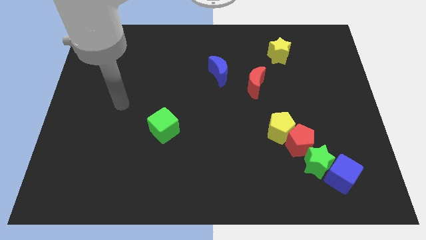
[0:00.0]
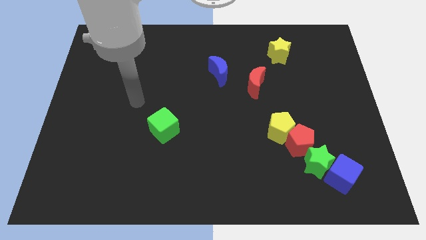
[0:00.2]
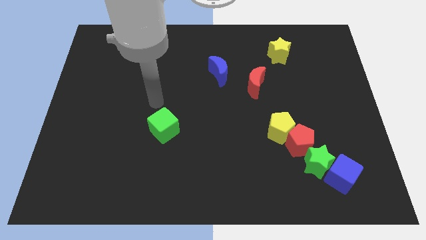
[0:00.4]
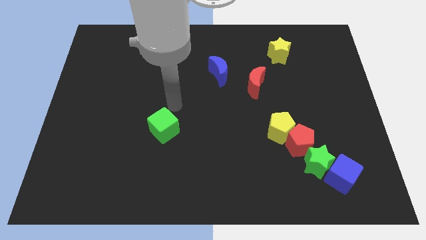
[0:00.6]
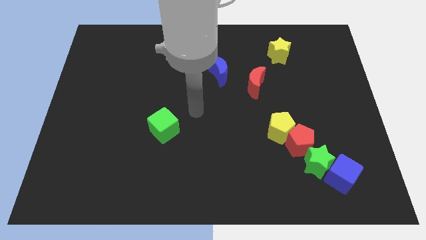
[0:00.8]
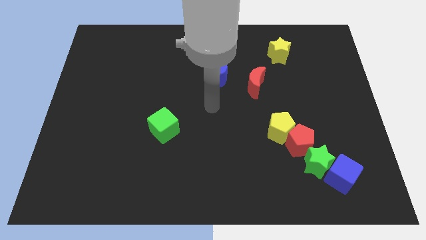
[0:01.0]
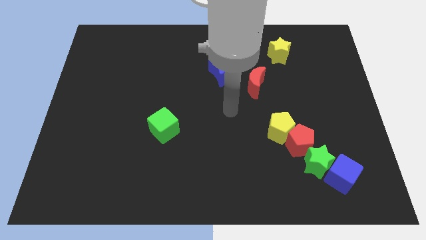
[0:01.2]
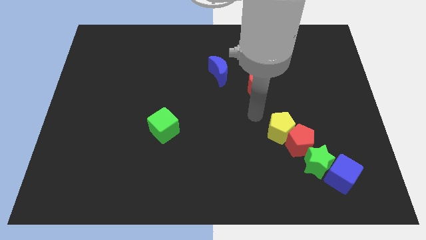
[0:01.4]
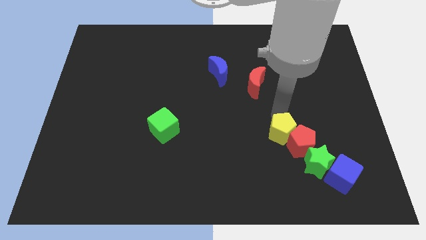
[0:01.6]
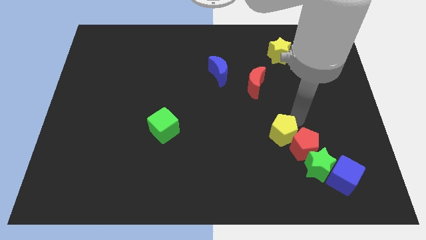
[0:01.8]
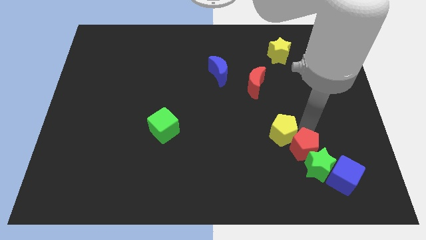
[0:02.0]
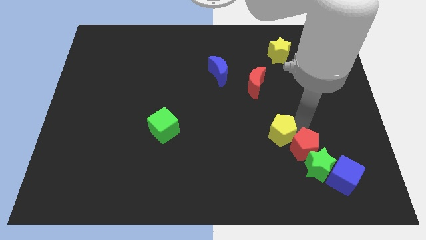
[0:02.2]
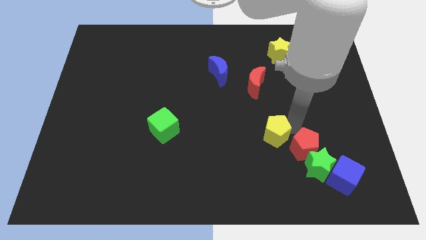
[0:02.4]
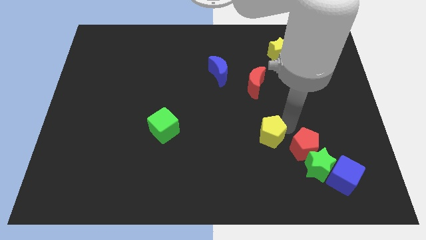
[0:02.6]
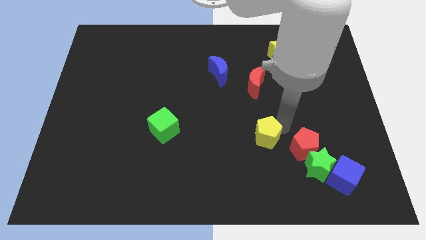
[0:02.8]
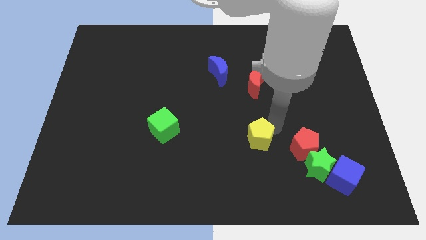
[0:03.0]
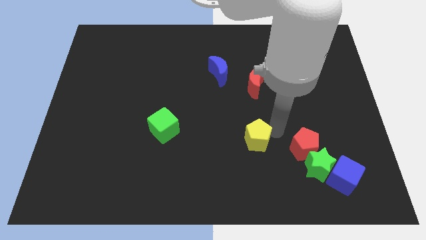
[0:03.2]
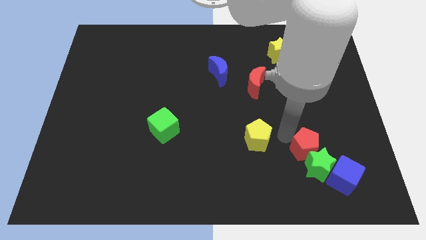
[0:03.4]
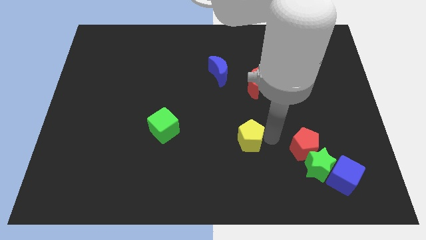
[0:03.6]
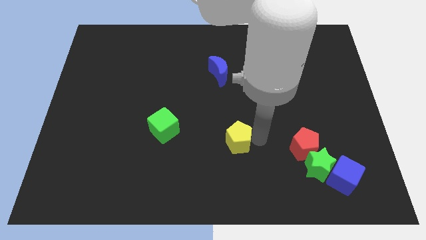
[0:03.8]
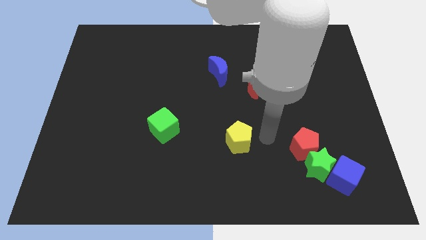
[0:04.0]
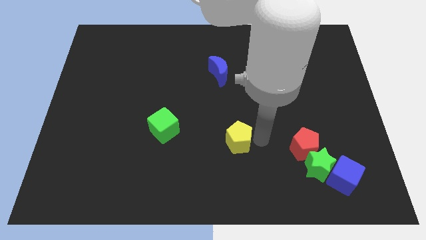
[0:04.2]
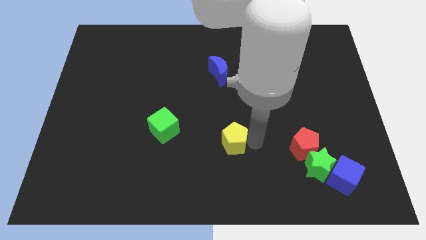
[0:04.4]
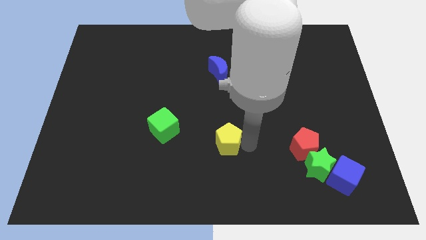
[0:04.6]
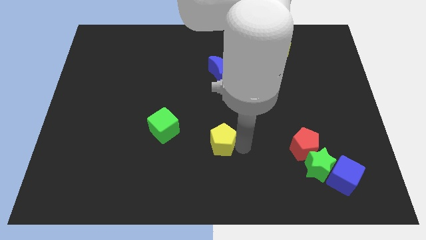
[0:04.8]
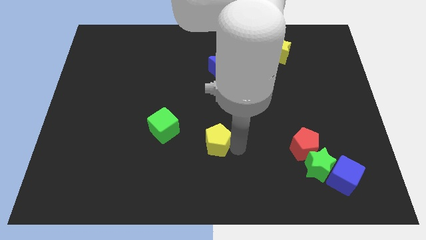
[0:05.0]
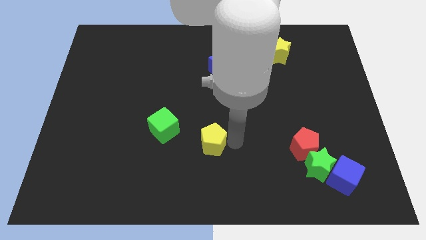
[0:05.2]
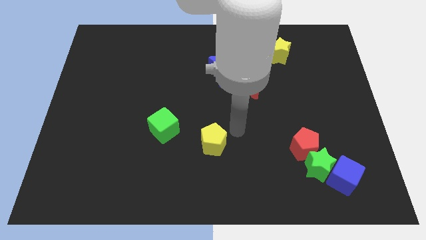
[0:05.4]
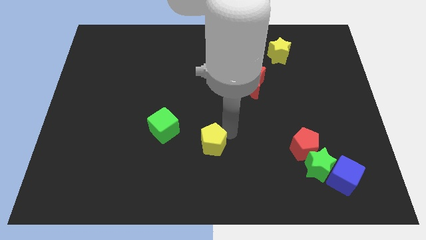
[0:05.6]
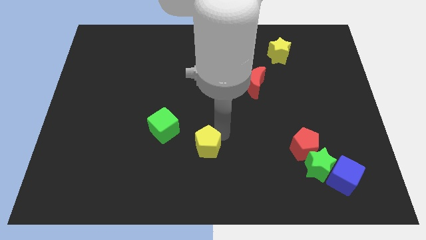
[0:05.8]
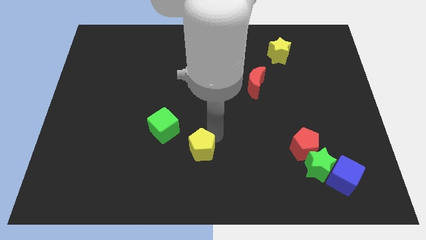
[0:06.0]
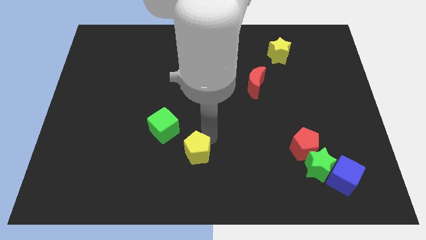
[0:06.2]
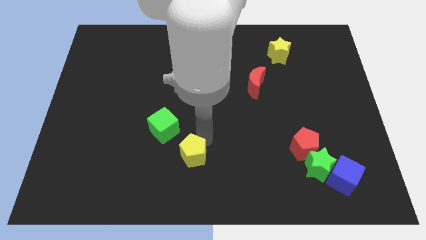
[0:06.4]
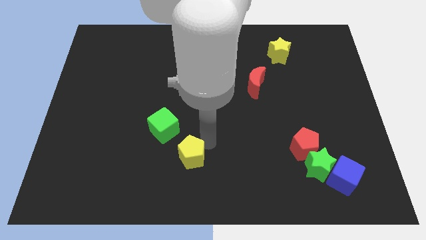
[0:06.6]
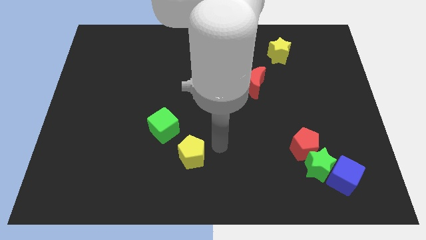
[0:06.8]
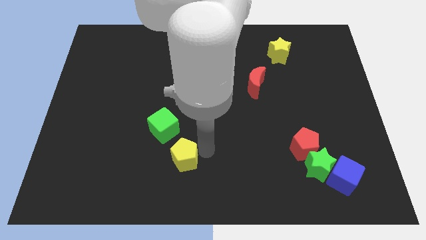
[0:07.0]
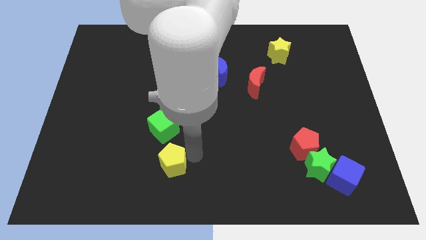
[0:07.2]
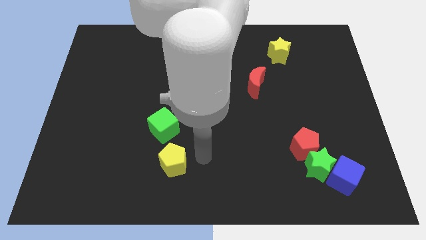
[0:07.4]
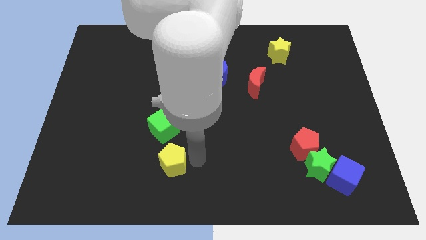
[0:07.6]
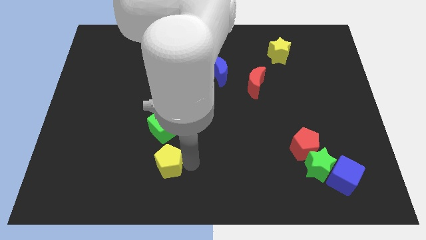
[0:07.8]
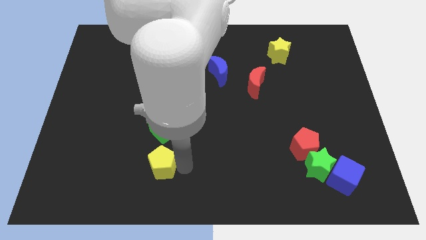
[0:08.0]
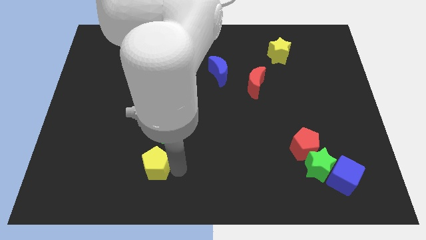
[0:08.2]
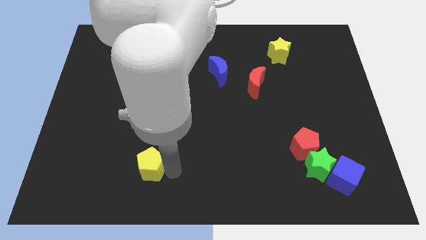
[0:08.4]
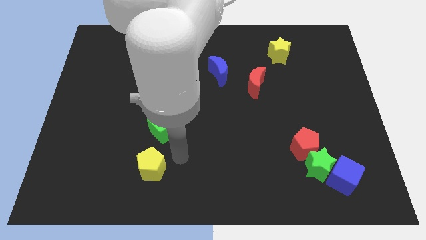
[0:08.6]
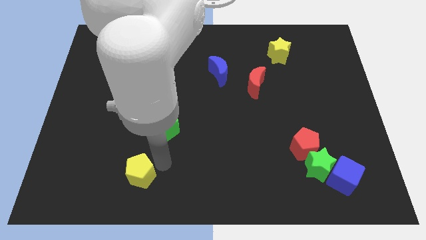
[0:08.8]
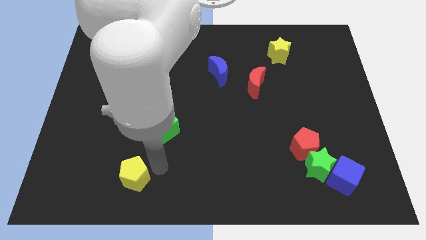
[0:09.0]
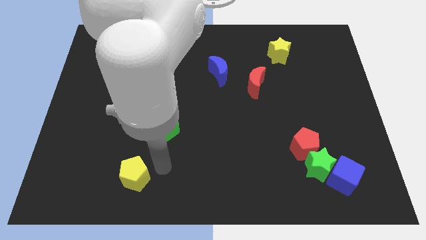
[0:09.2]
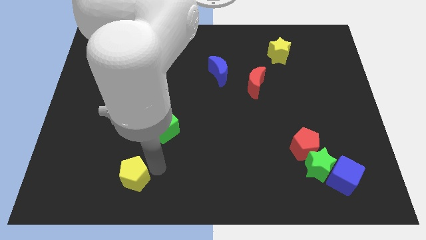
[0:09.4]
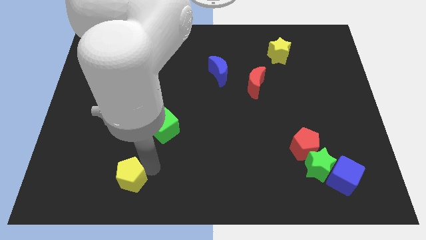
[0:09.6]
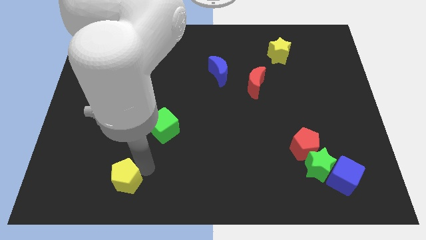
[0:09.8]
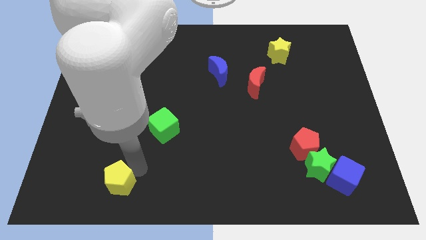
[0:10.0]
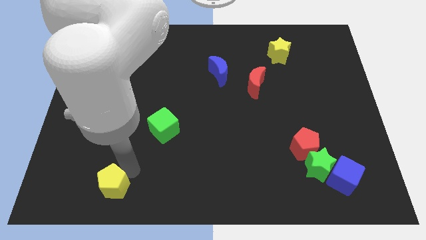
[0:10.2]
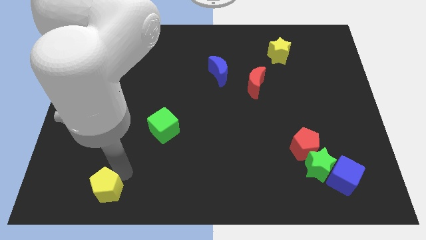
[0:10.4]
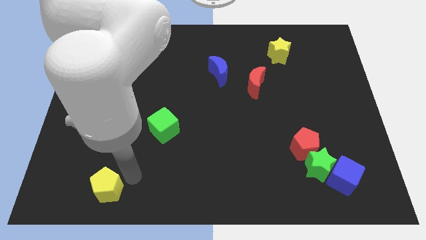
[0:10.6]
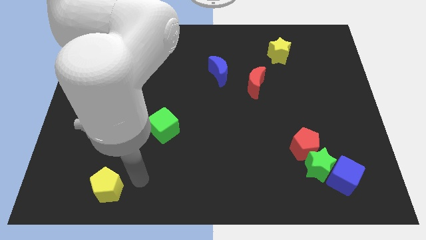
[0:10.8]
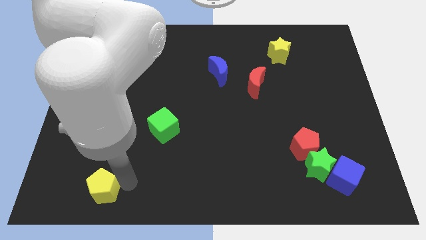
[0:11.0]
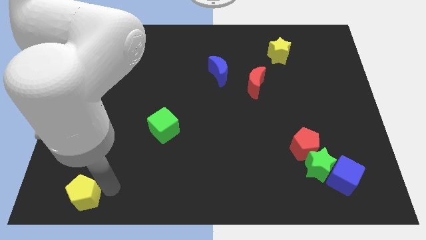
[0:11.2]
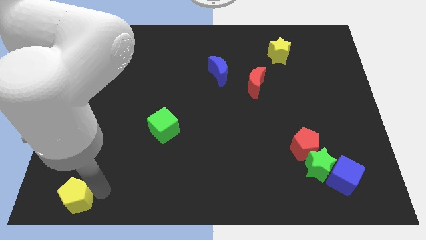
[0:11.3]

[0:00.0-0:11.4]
put the yellow pentagon to the bottom left

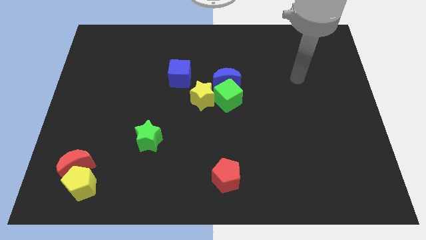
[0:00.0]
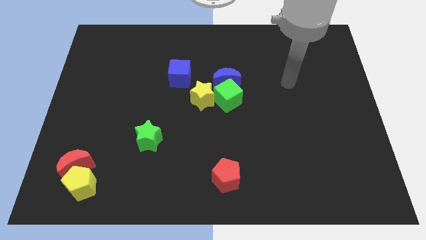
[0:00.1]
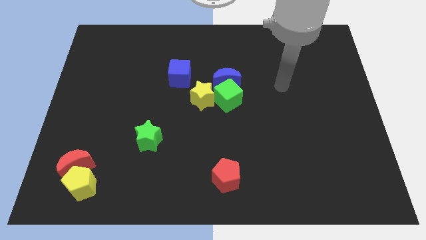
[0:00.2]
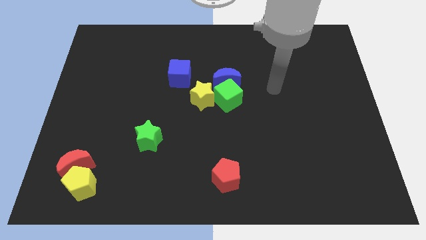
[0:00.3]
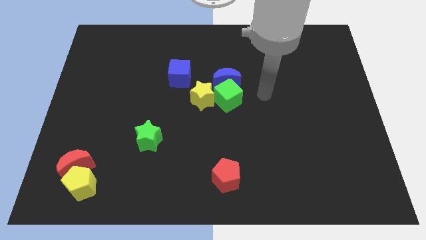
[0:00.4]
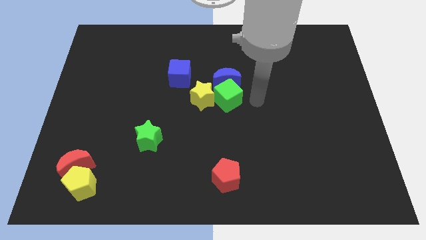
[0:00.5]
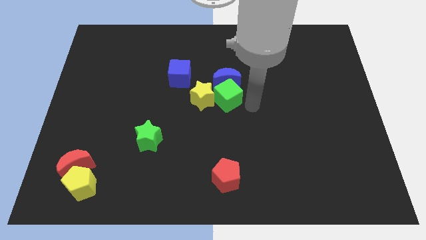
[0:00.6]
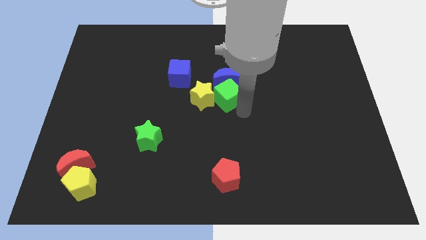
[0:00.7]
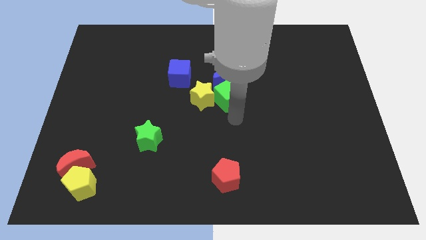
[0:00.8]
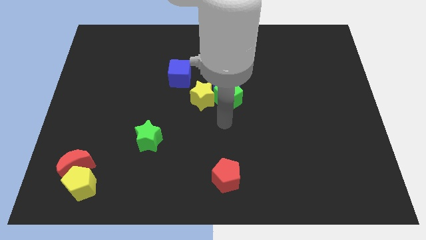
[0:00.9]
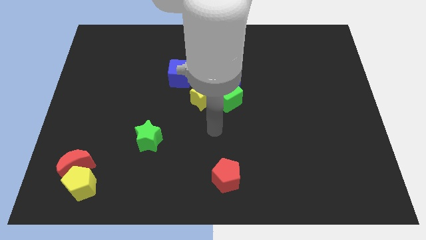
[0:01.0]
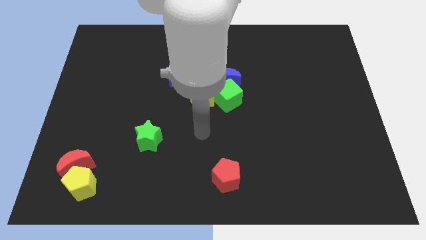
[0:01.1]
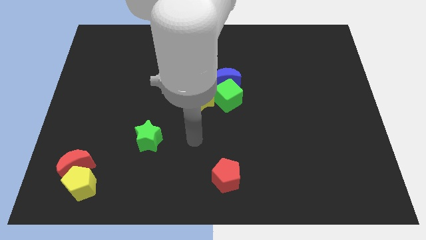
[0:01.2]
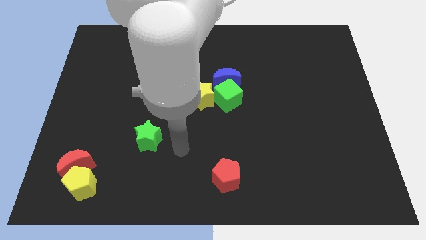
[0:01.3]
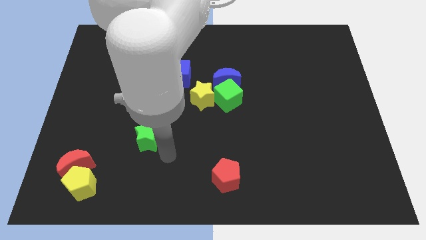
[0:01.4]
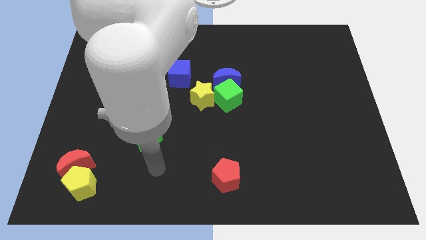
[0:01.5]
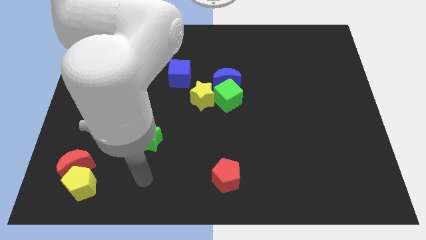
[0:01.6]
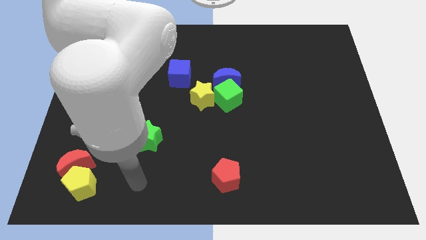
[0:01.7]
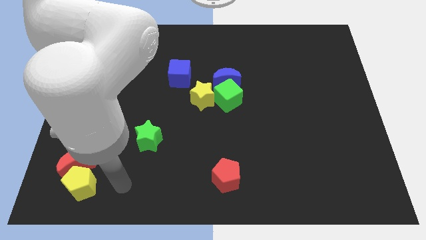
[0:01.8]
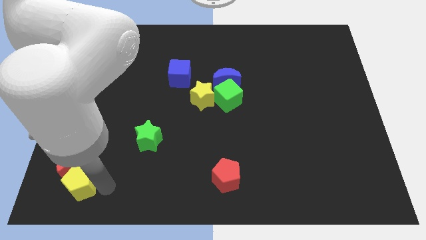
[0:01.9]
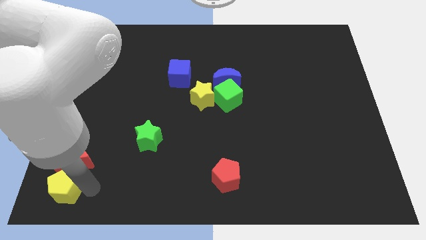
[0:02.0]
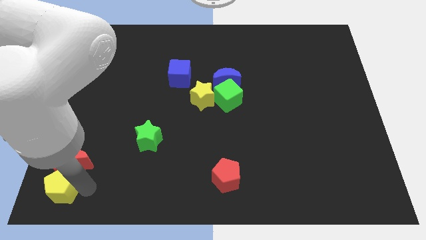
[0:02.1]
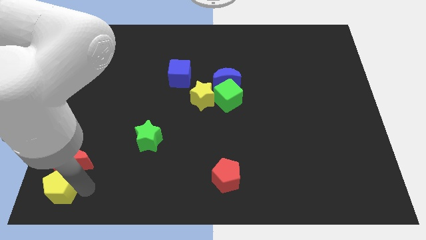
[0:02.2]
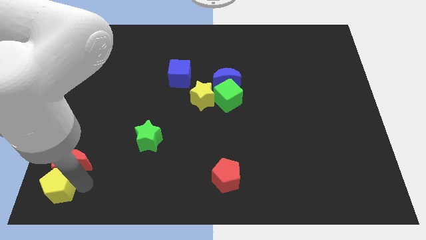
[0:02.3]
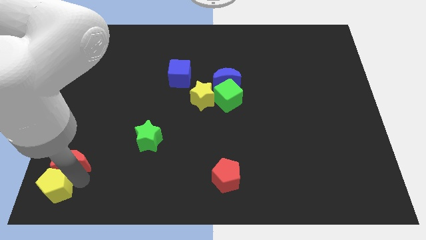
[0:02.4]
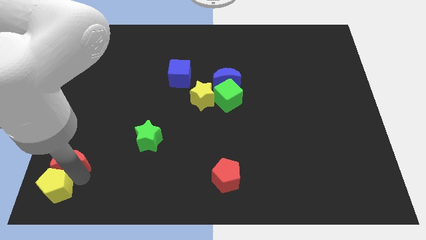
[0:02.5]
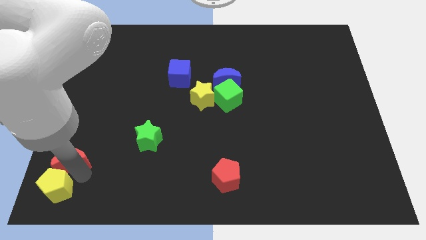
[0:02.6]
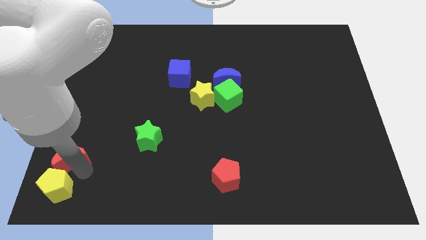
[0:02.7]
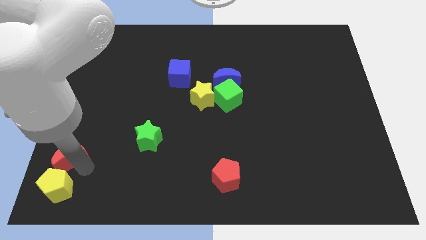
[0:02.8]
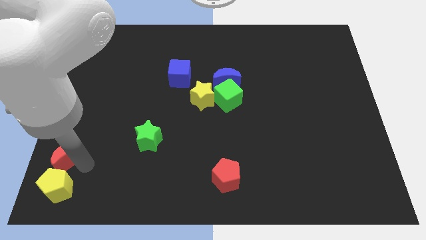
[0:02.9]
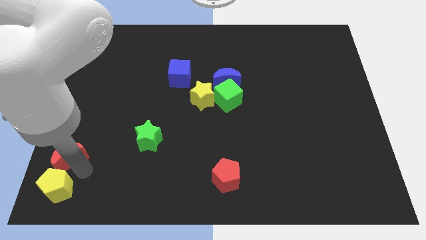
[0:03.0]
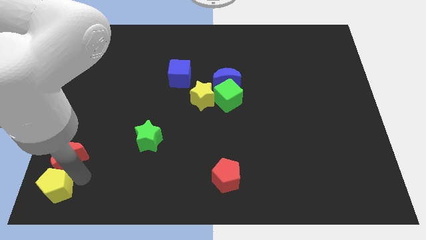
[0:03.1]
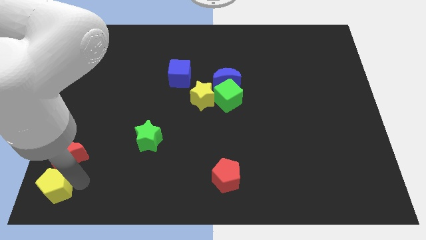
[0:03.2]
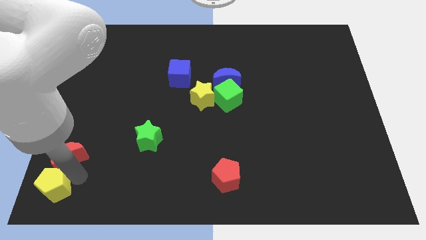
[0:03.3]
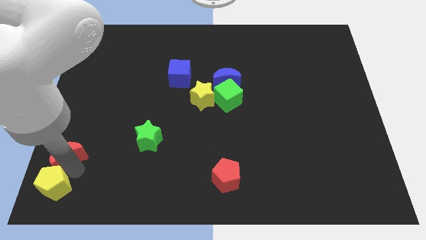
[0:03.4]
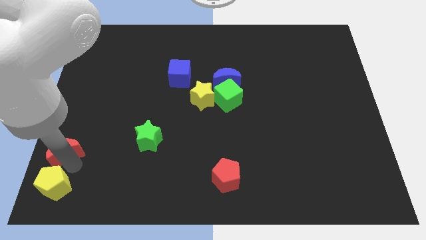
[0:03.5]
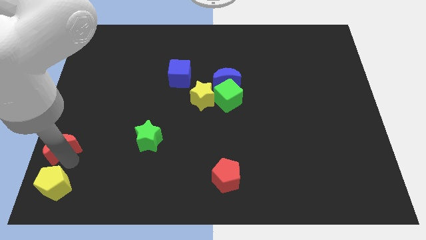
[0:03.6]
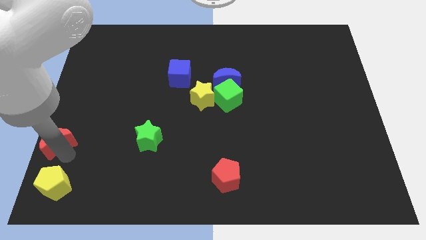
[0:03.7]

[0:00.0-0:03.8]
move the red moon to the left side
